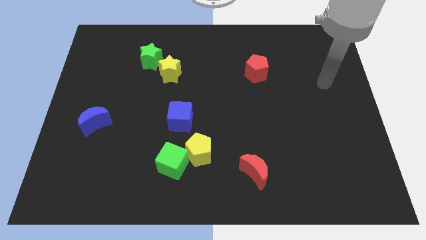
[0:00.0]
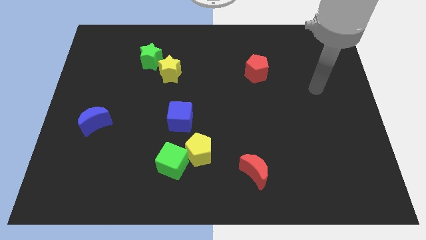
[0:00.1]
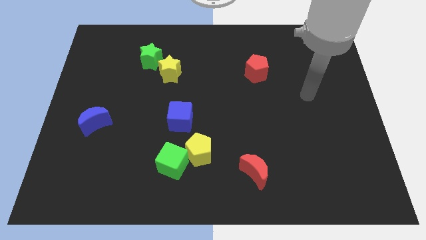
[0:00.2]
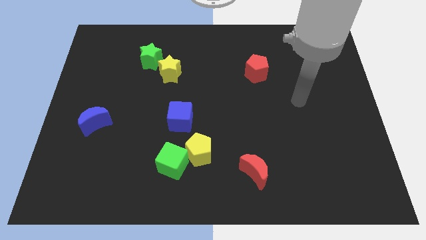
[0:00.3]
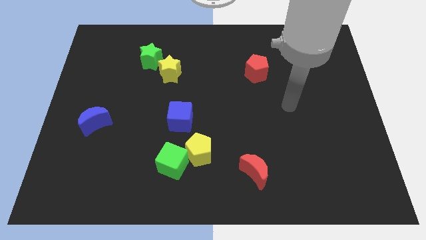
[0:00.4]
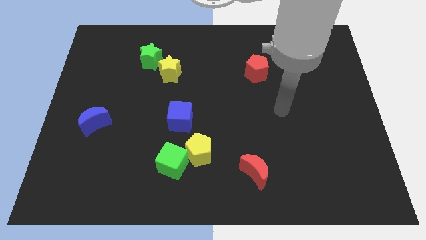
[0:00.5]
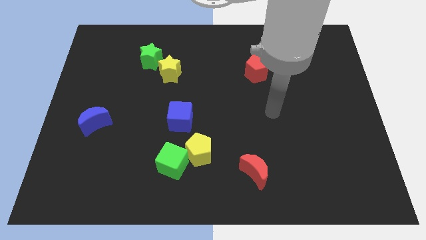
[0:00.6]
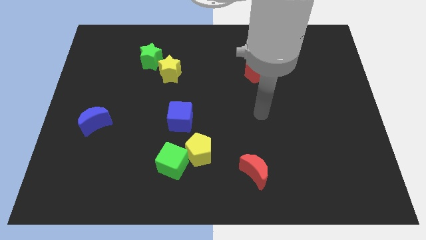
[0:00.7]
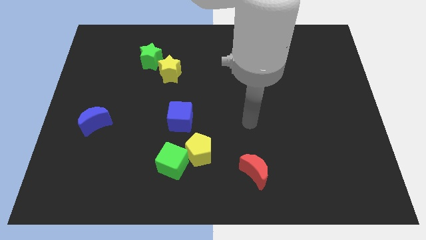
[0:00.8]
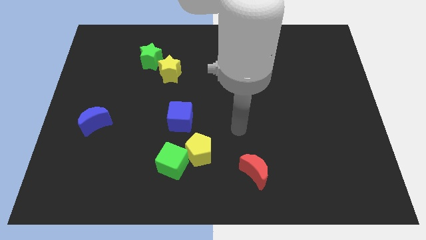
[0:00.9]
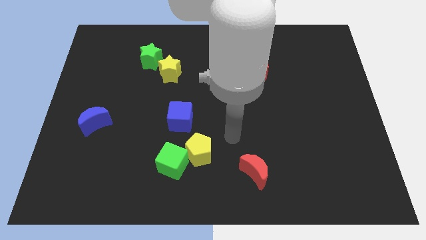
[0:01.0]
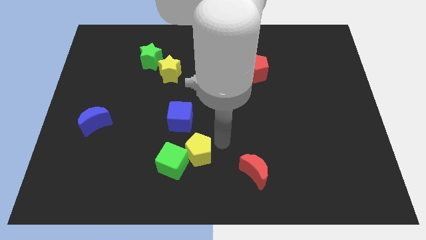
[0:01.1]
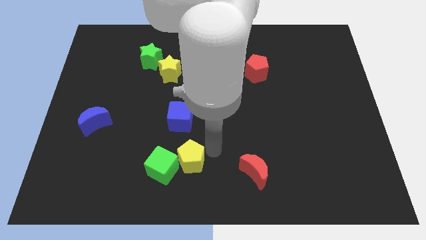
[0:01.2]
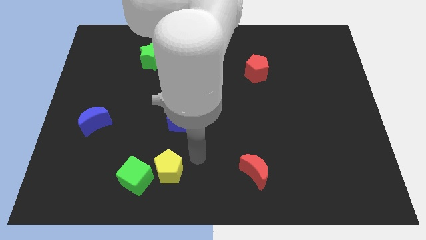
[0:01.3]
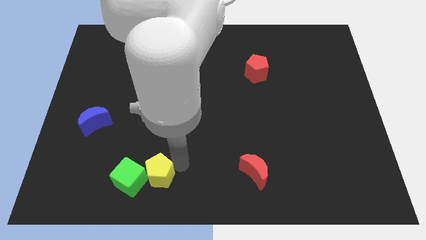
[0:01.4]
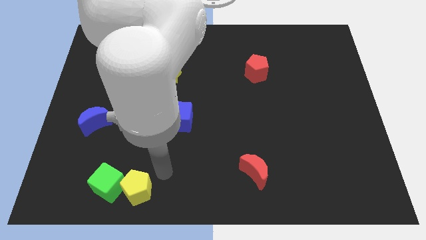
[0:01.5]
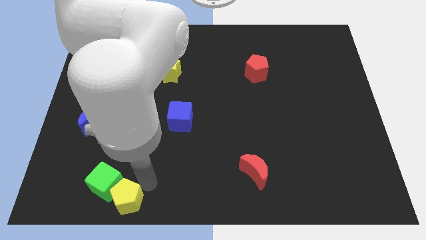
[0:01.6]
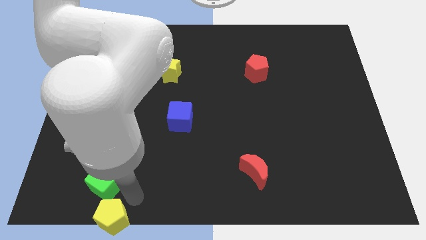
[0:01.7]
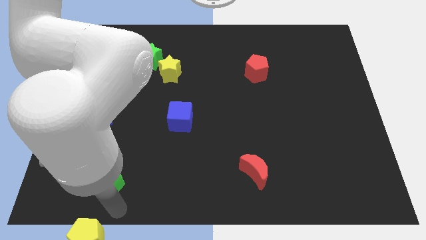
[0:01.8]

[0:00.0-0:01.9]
pull the green cube apart from the yellow pentagon

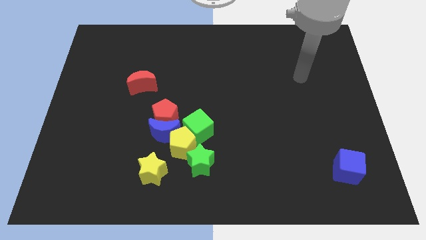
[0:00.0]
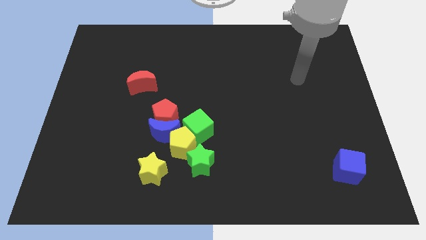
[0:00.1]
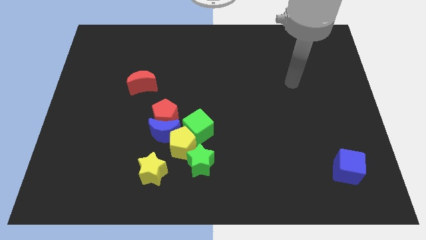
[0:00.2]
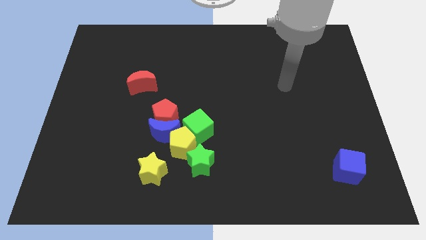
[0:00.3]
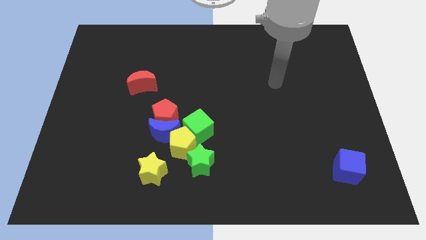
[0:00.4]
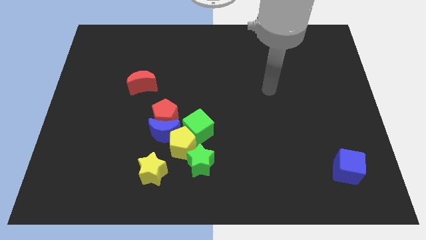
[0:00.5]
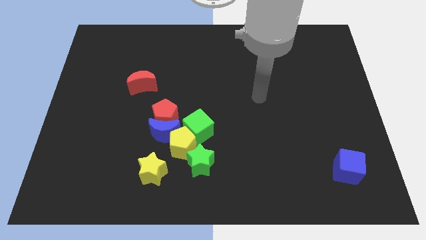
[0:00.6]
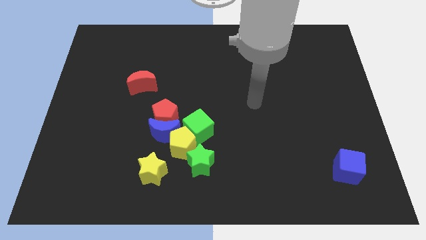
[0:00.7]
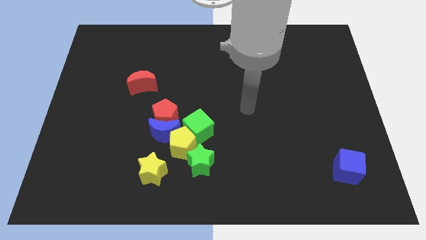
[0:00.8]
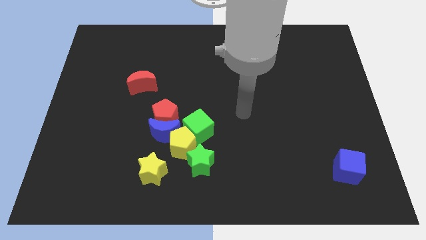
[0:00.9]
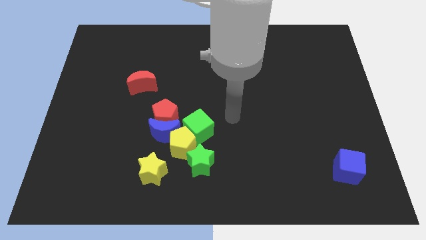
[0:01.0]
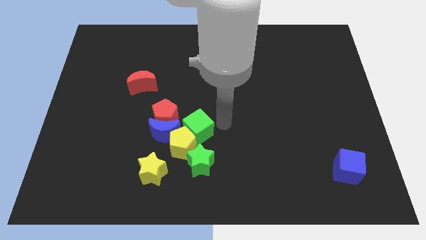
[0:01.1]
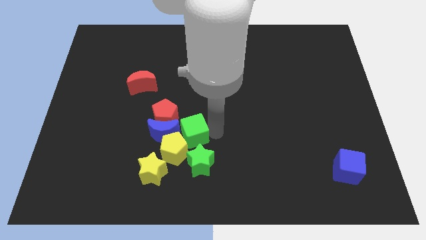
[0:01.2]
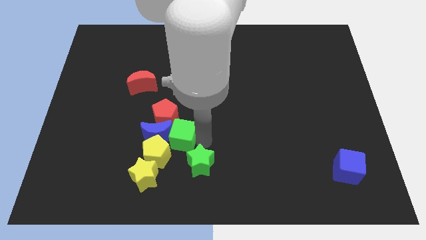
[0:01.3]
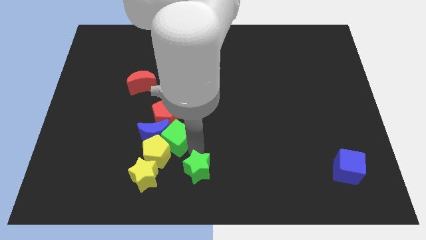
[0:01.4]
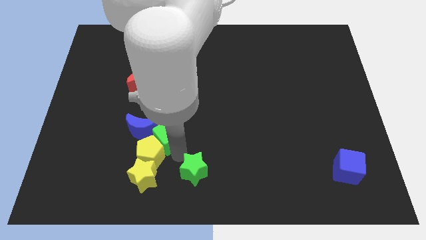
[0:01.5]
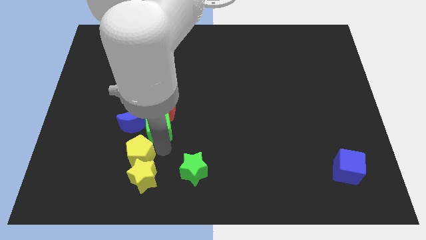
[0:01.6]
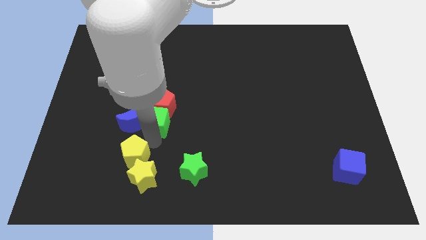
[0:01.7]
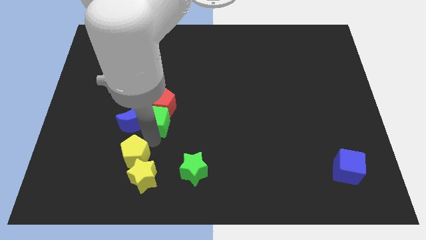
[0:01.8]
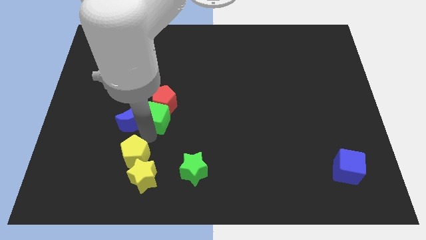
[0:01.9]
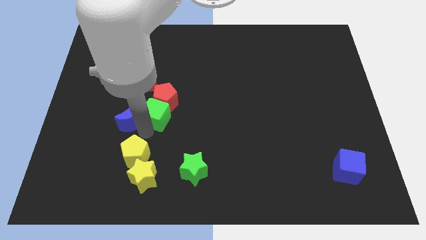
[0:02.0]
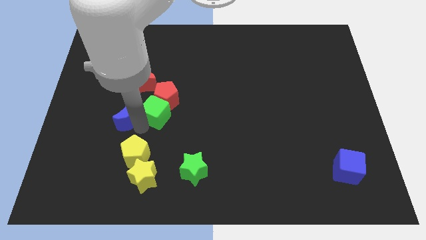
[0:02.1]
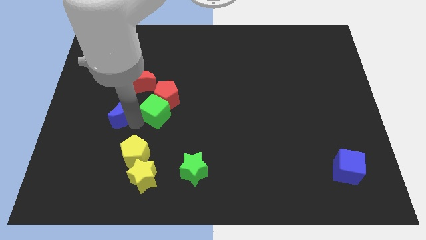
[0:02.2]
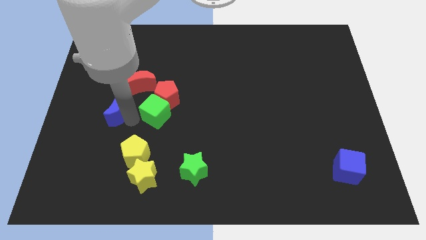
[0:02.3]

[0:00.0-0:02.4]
move the blue moon away from the group

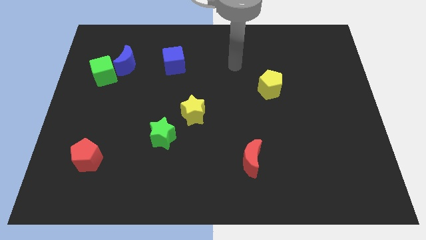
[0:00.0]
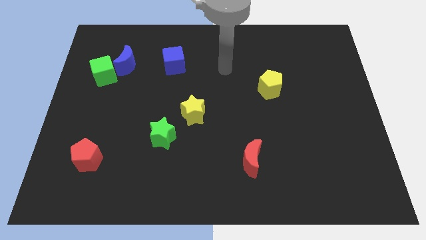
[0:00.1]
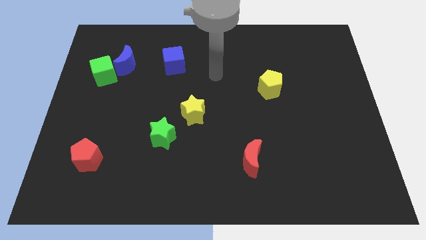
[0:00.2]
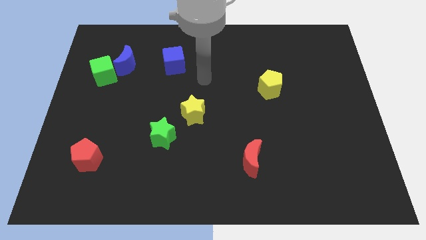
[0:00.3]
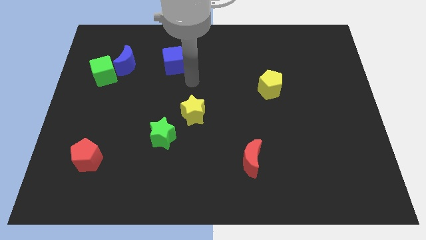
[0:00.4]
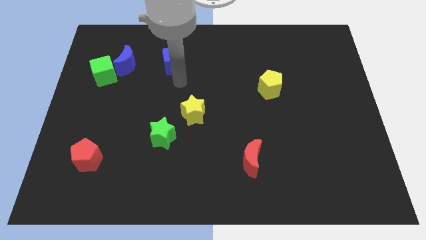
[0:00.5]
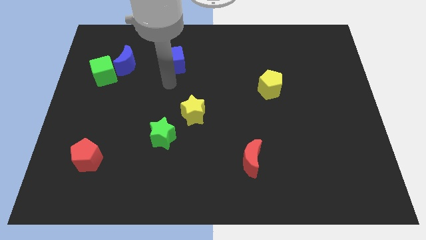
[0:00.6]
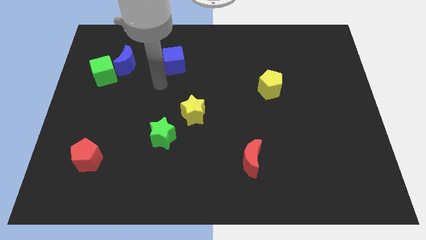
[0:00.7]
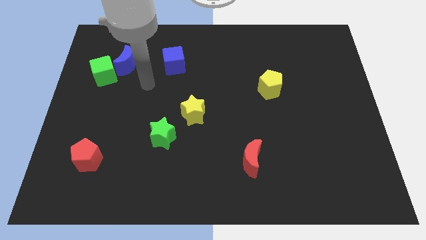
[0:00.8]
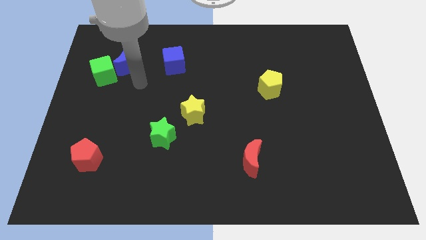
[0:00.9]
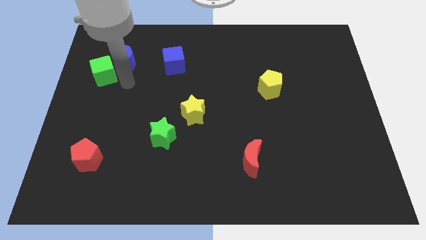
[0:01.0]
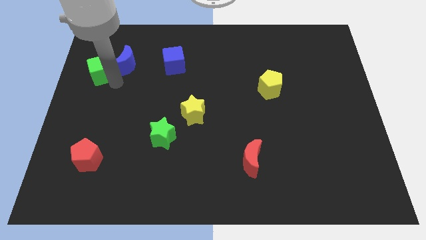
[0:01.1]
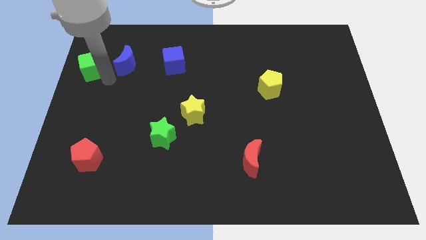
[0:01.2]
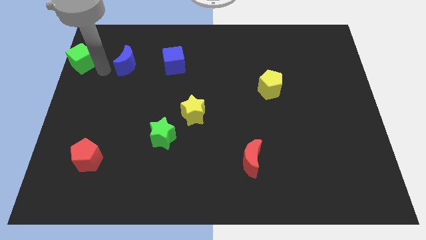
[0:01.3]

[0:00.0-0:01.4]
move the blue moon away from the green cube

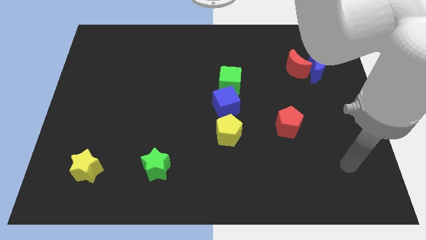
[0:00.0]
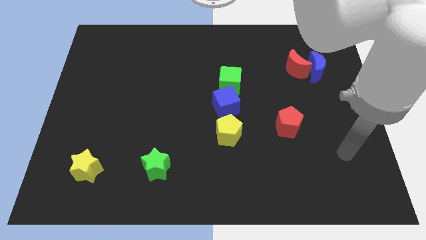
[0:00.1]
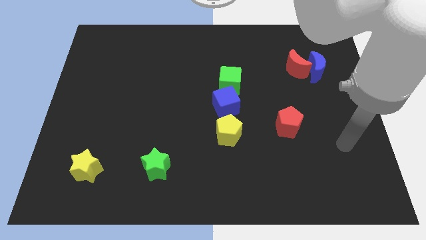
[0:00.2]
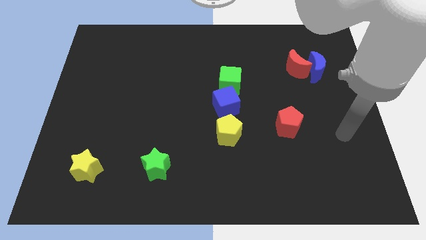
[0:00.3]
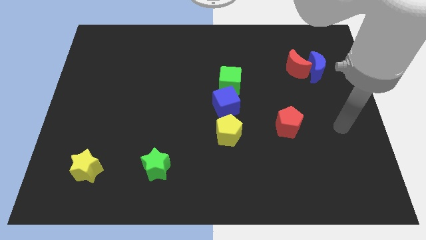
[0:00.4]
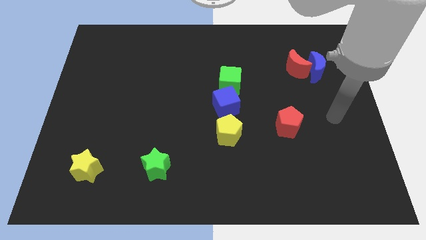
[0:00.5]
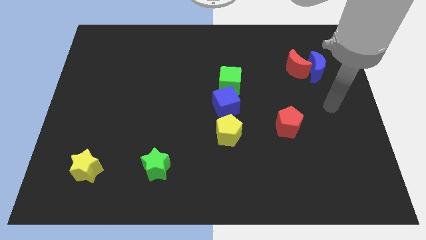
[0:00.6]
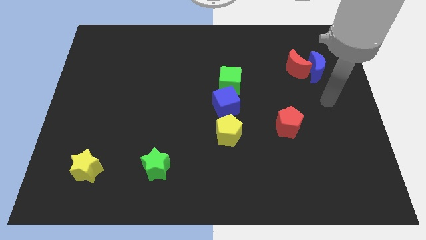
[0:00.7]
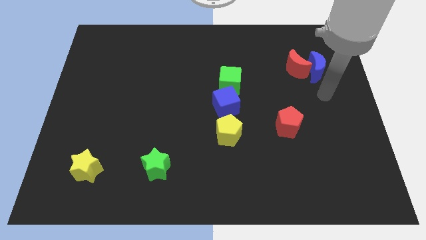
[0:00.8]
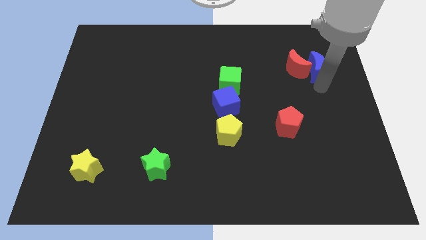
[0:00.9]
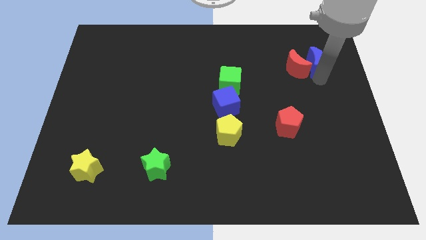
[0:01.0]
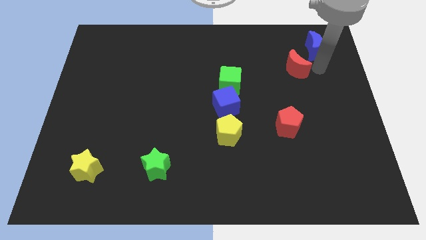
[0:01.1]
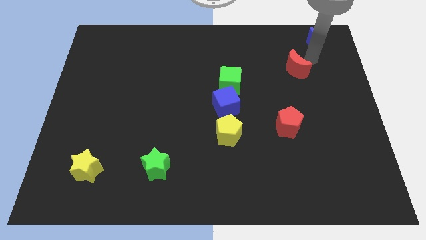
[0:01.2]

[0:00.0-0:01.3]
pull the red moon apart from the blue moon

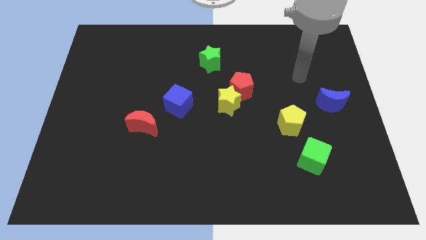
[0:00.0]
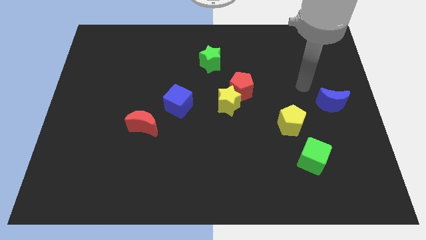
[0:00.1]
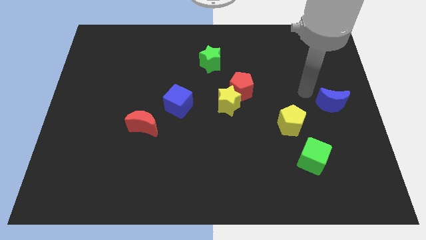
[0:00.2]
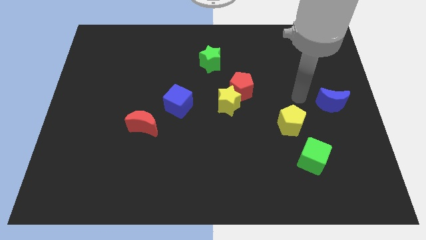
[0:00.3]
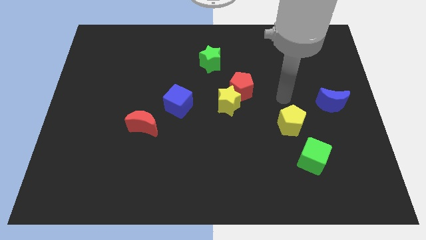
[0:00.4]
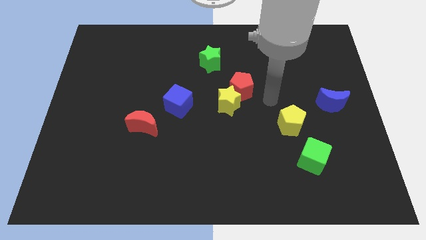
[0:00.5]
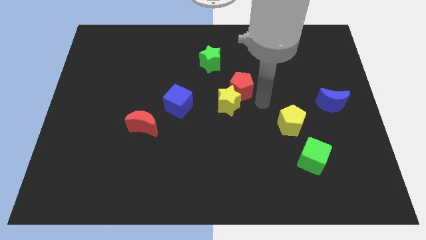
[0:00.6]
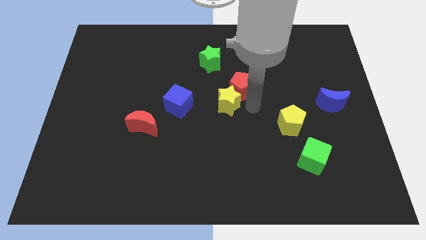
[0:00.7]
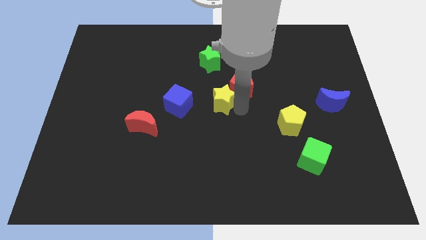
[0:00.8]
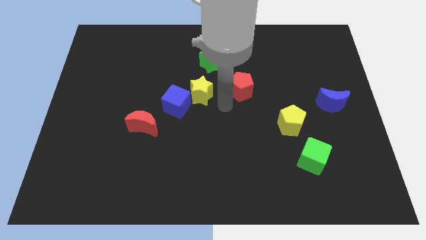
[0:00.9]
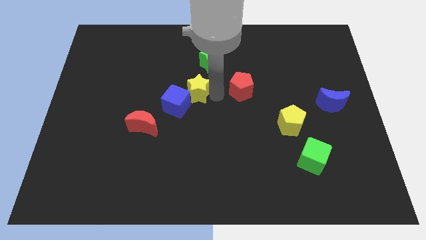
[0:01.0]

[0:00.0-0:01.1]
separate the red pentagon from the yellow star

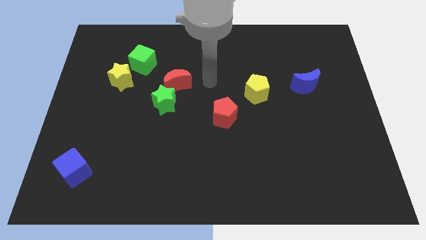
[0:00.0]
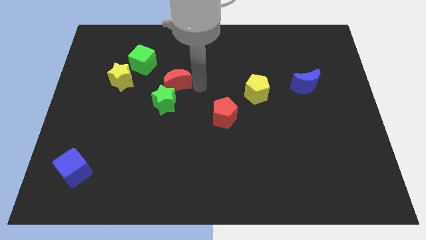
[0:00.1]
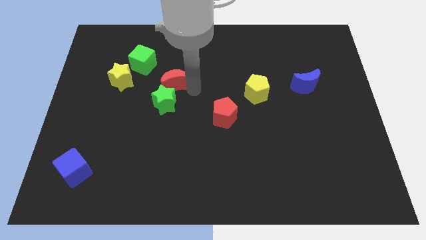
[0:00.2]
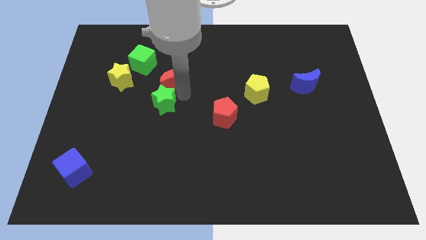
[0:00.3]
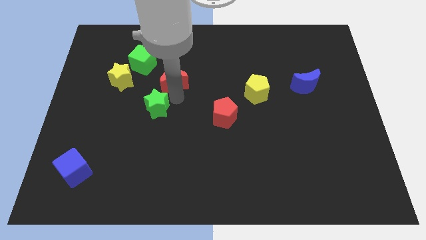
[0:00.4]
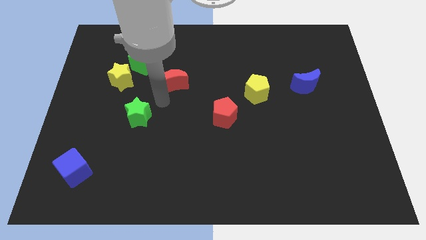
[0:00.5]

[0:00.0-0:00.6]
move the red moon away from the green star

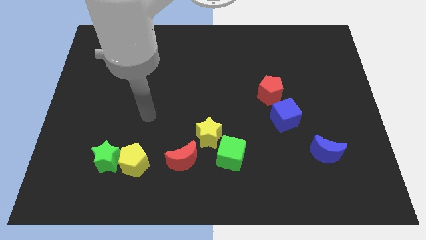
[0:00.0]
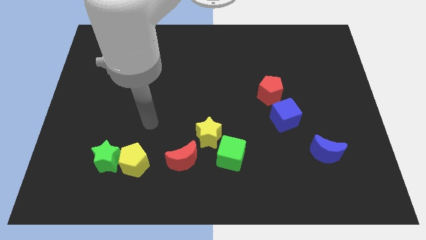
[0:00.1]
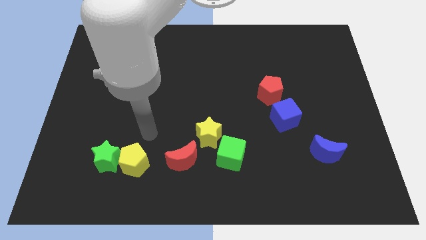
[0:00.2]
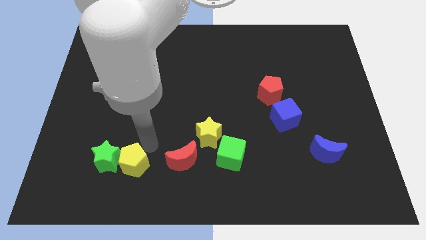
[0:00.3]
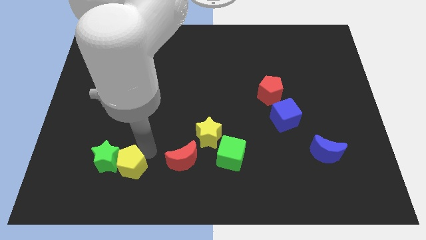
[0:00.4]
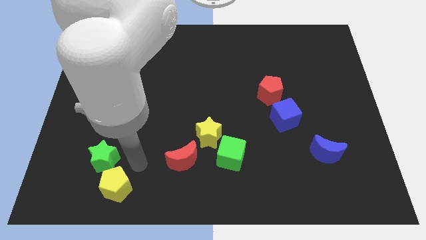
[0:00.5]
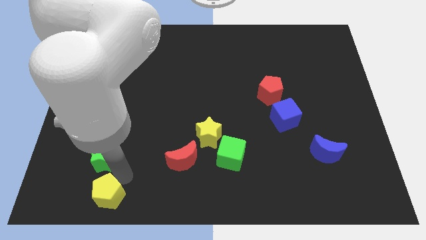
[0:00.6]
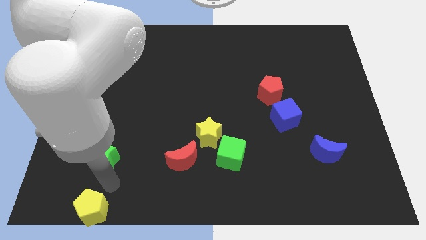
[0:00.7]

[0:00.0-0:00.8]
separate the green star from the yellow pentagon
